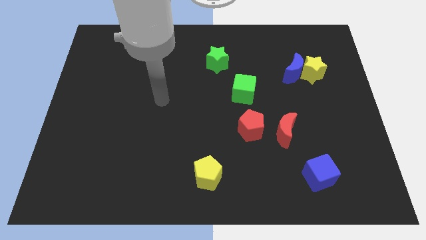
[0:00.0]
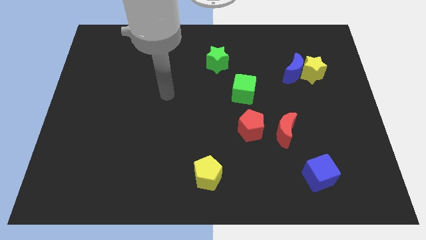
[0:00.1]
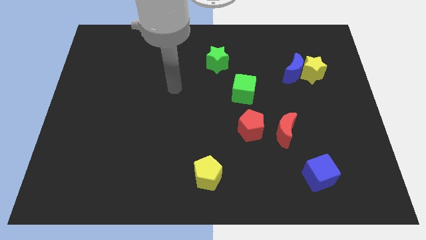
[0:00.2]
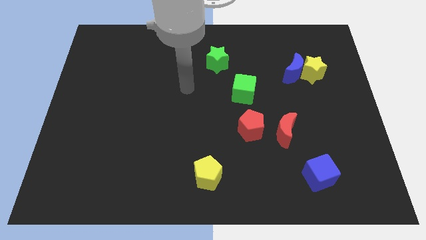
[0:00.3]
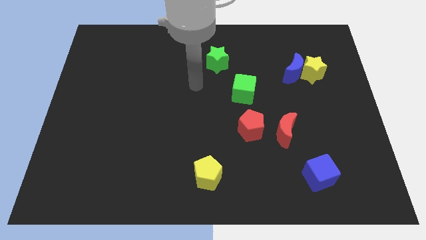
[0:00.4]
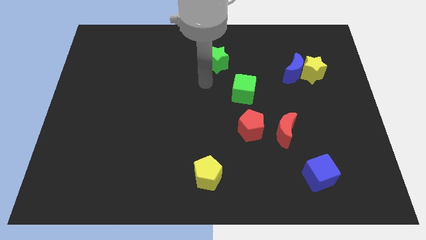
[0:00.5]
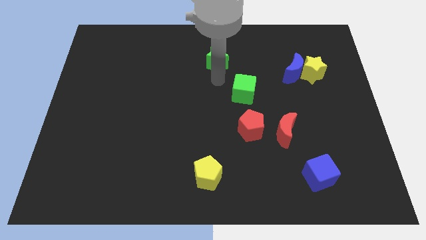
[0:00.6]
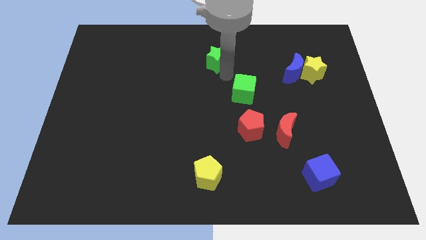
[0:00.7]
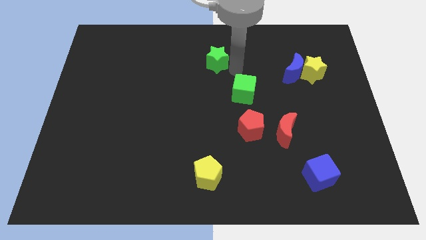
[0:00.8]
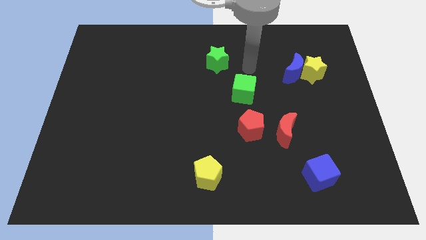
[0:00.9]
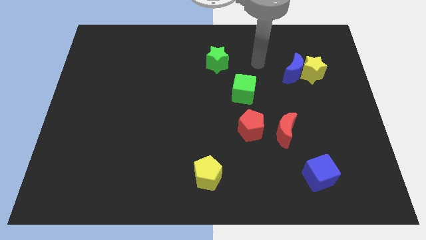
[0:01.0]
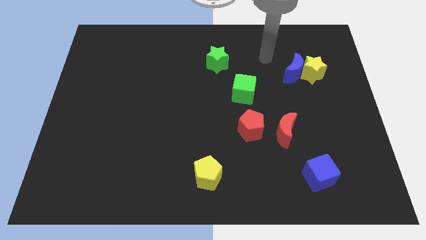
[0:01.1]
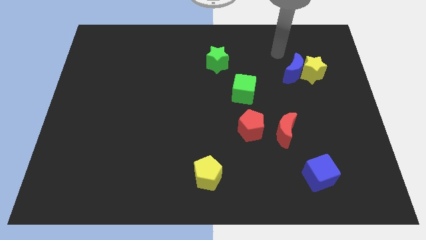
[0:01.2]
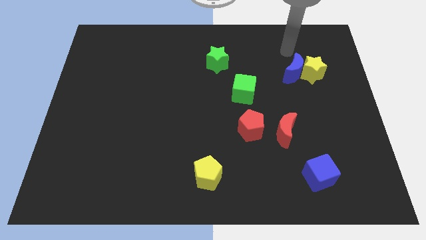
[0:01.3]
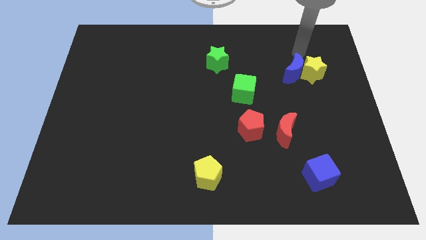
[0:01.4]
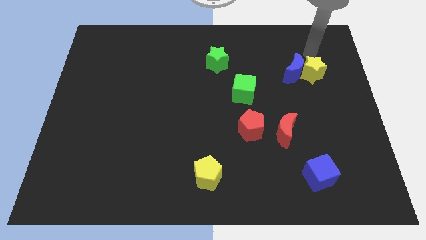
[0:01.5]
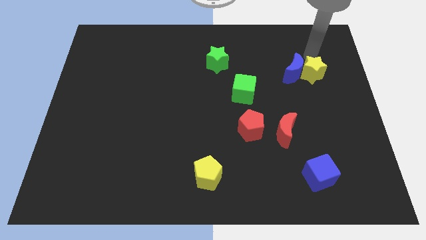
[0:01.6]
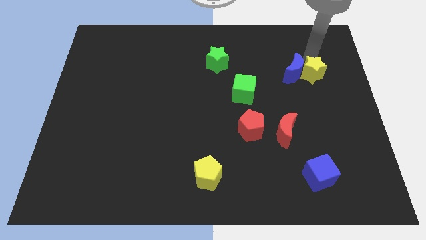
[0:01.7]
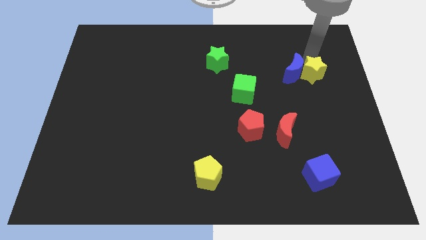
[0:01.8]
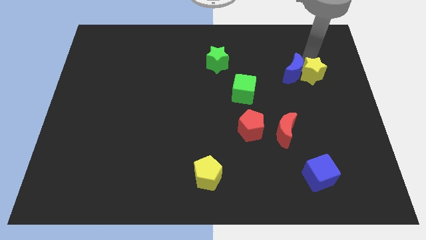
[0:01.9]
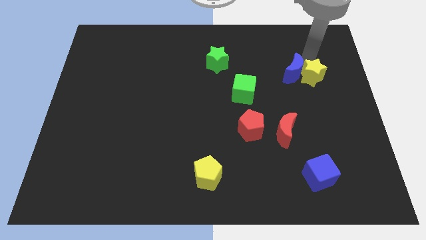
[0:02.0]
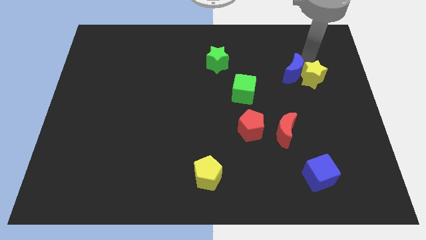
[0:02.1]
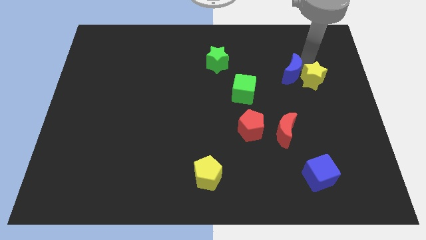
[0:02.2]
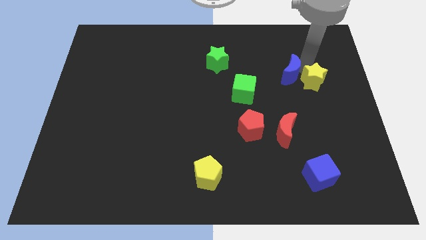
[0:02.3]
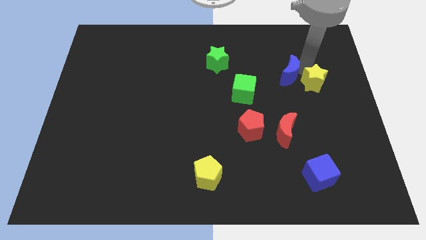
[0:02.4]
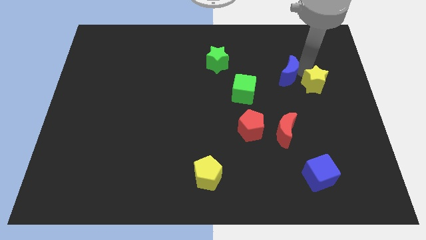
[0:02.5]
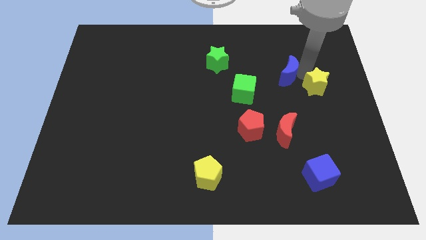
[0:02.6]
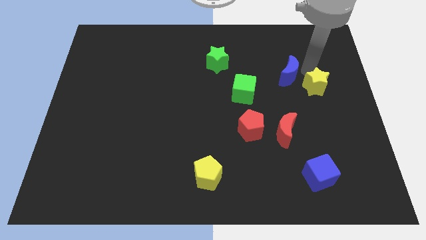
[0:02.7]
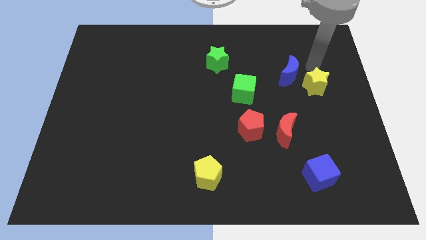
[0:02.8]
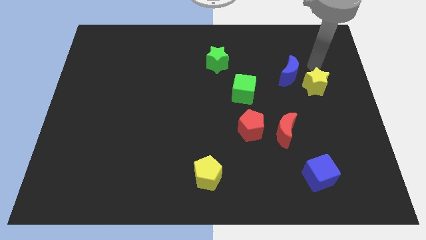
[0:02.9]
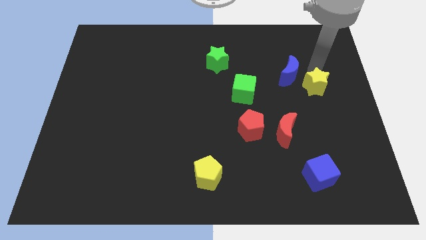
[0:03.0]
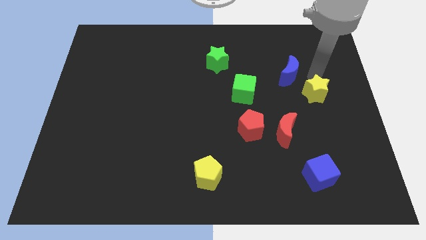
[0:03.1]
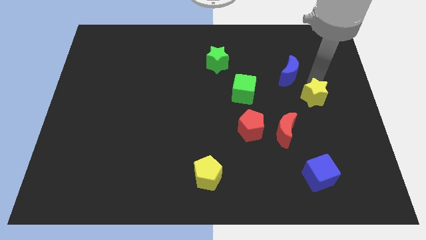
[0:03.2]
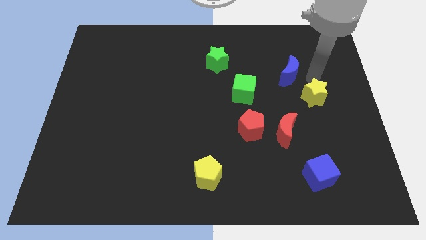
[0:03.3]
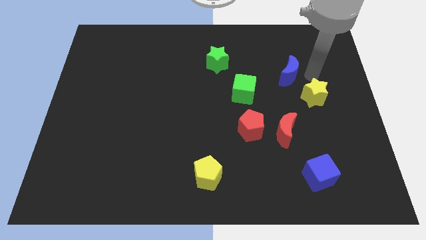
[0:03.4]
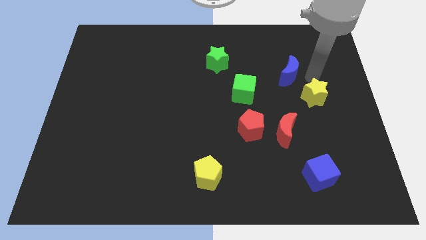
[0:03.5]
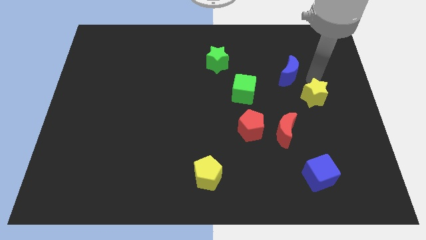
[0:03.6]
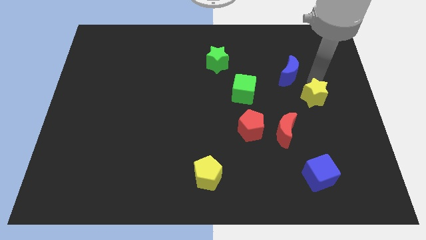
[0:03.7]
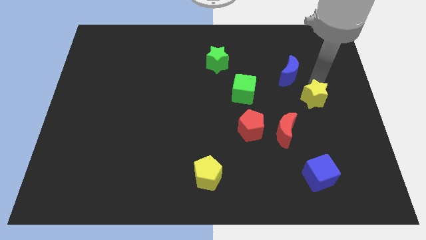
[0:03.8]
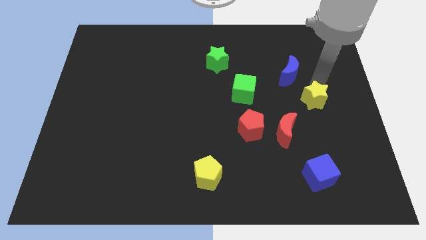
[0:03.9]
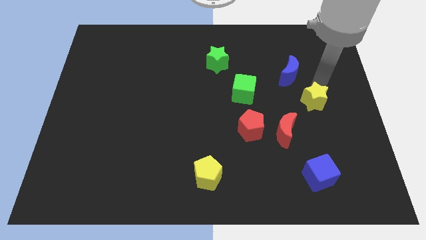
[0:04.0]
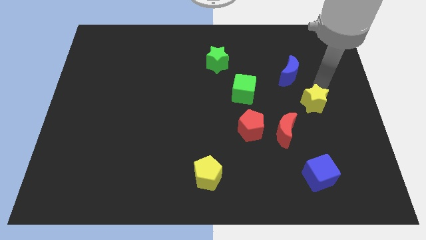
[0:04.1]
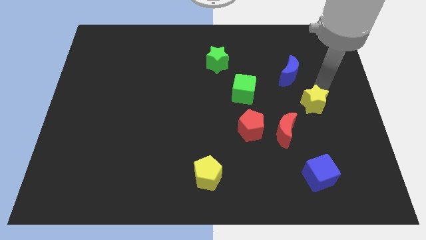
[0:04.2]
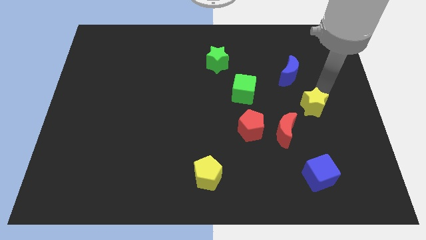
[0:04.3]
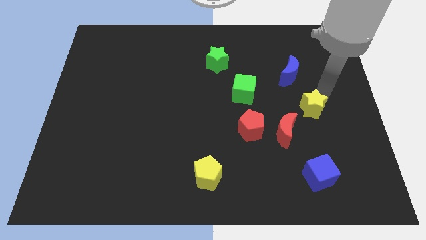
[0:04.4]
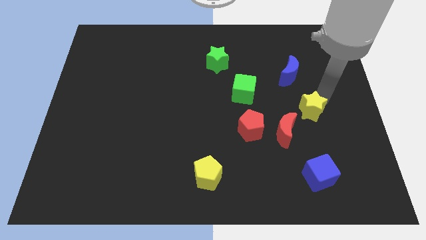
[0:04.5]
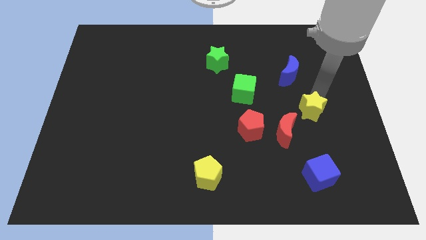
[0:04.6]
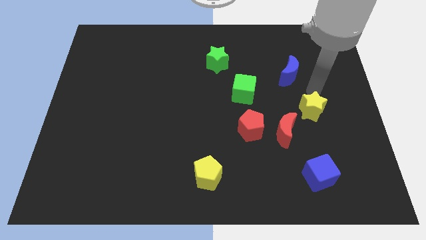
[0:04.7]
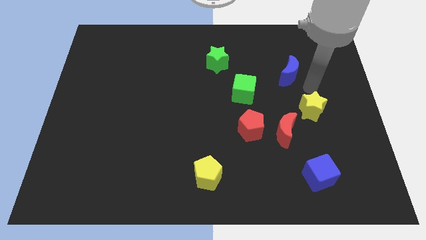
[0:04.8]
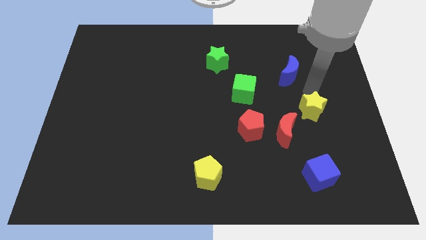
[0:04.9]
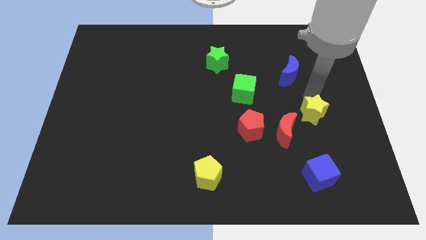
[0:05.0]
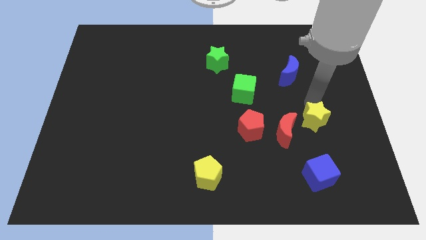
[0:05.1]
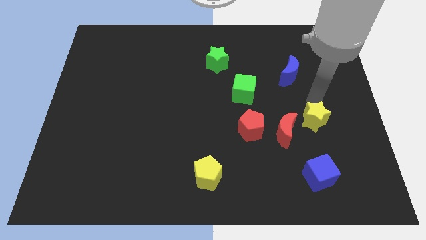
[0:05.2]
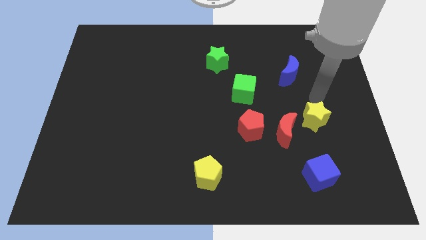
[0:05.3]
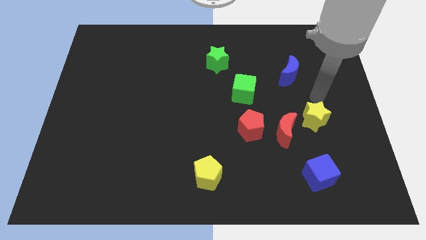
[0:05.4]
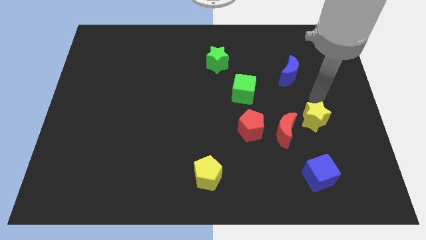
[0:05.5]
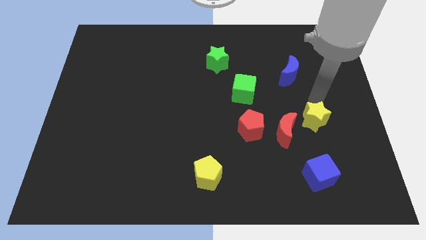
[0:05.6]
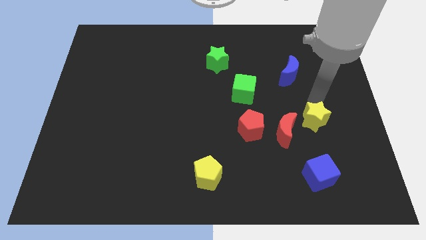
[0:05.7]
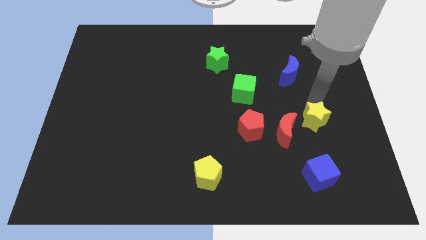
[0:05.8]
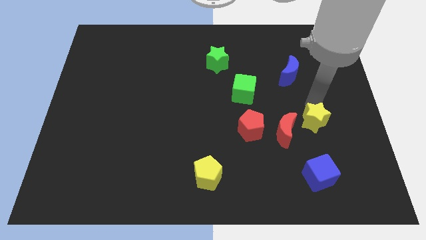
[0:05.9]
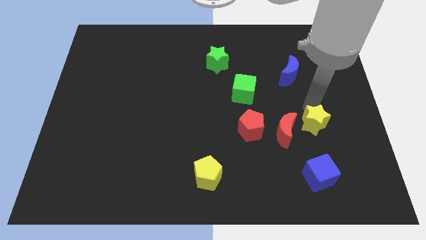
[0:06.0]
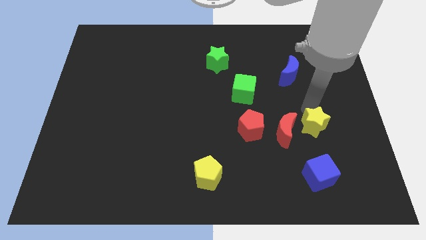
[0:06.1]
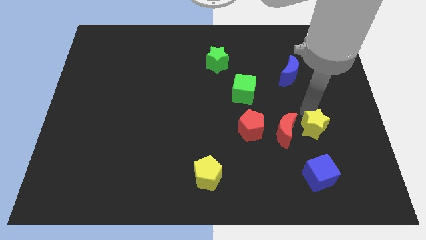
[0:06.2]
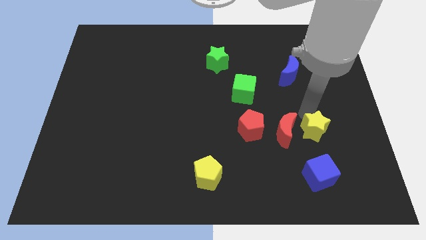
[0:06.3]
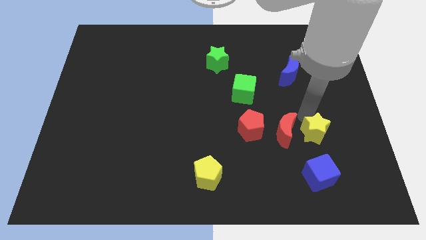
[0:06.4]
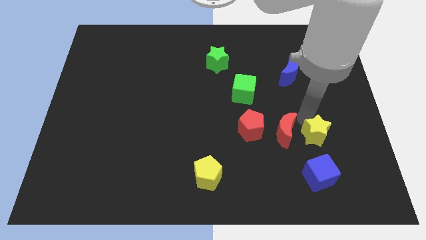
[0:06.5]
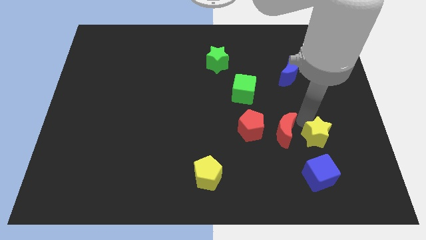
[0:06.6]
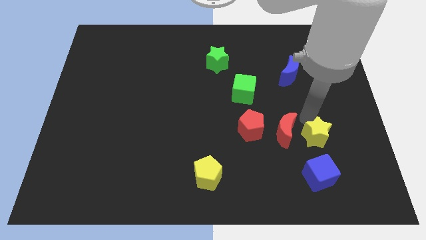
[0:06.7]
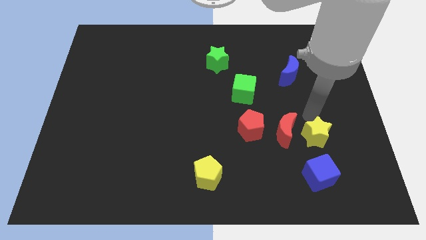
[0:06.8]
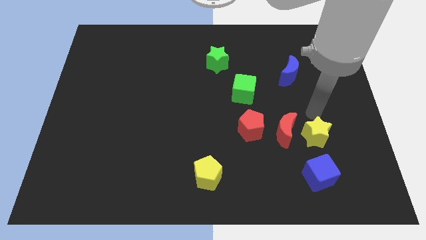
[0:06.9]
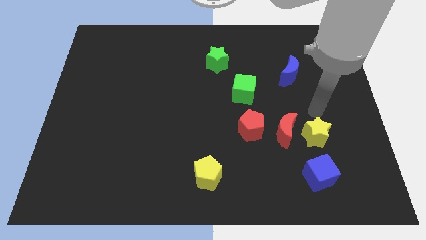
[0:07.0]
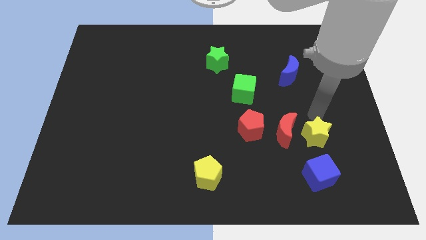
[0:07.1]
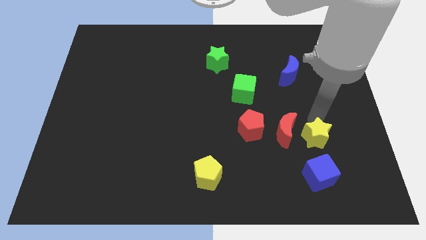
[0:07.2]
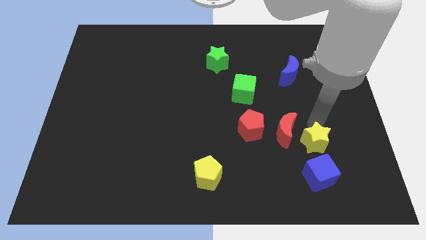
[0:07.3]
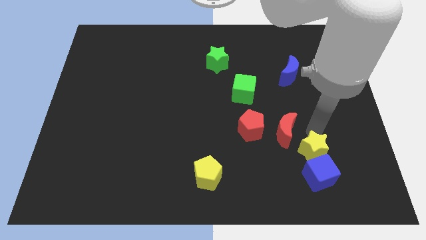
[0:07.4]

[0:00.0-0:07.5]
put the yellow star to the blue cube
